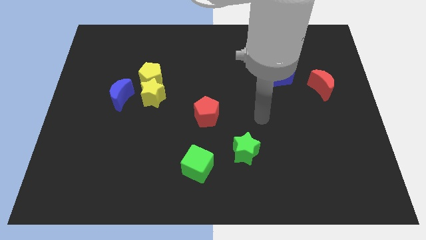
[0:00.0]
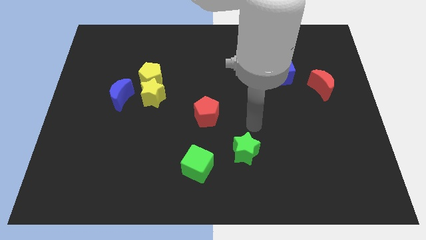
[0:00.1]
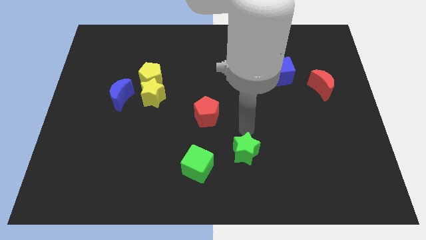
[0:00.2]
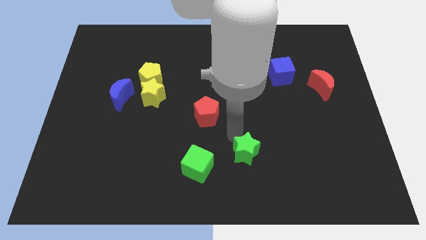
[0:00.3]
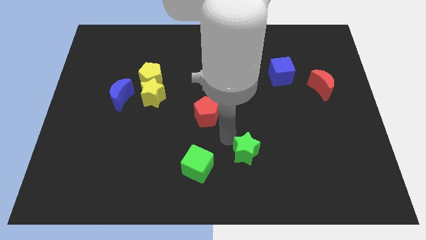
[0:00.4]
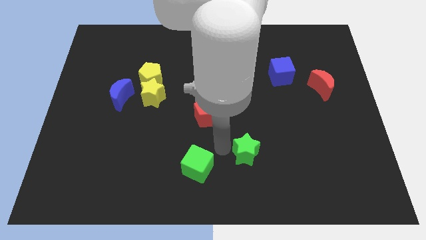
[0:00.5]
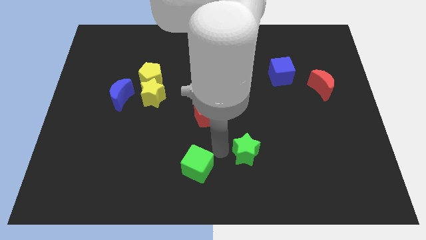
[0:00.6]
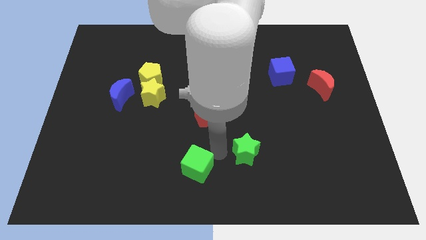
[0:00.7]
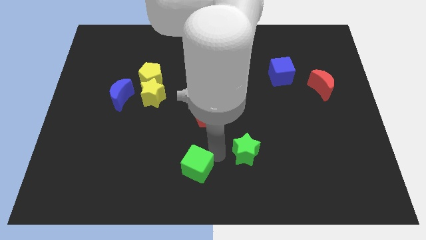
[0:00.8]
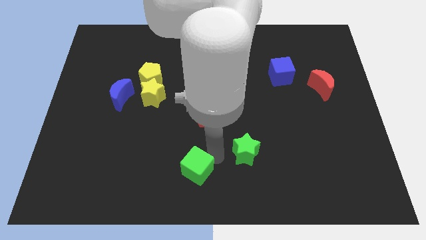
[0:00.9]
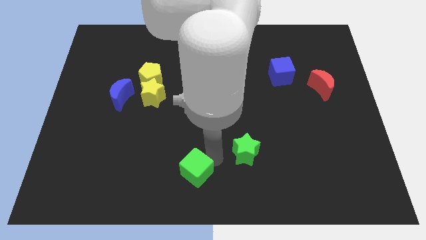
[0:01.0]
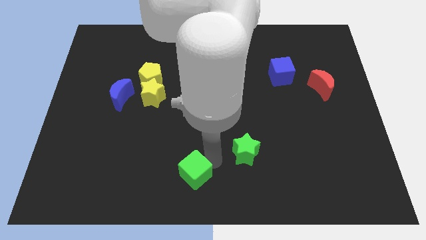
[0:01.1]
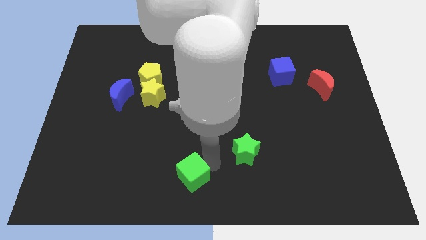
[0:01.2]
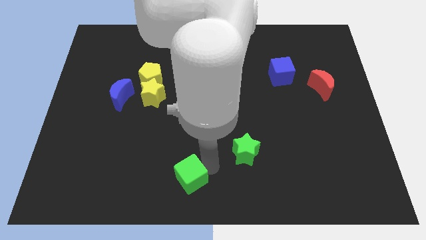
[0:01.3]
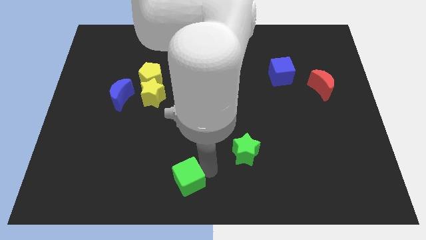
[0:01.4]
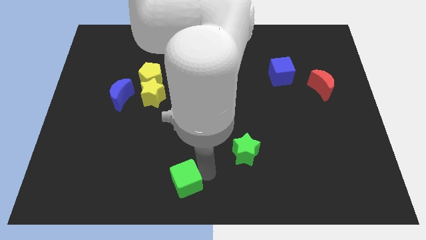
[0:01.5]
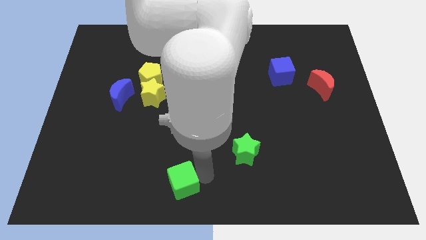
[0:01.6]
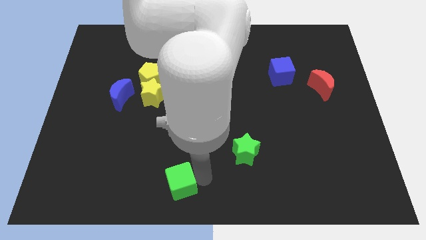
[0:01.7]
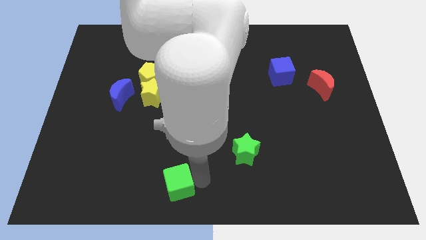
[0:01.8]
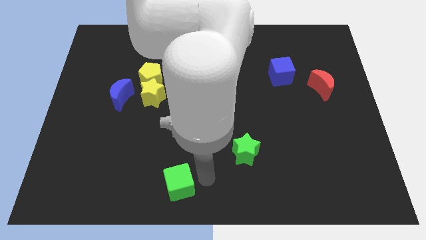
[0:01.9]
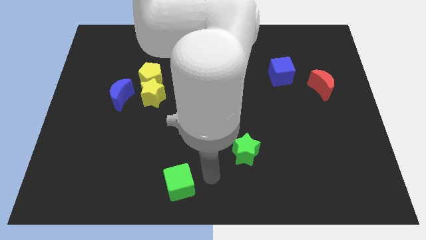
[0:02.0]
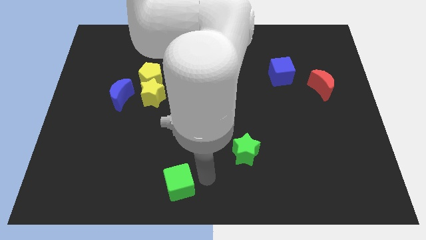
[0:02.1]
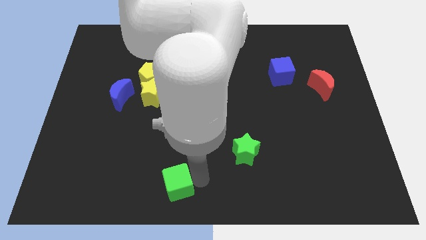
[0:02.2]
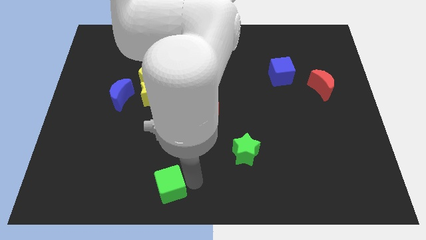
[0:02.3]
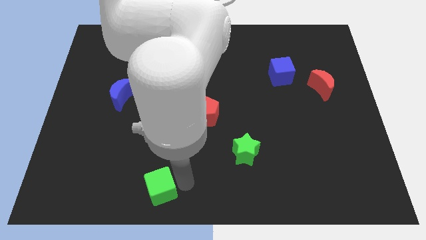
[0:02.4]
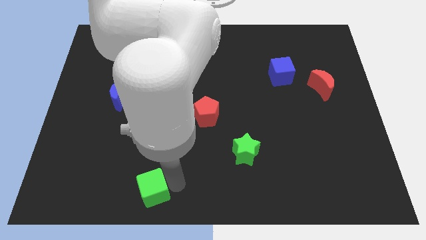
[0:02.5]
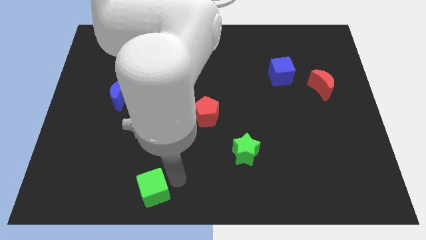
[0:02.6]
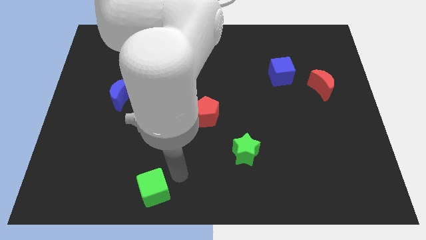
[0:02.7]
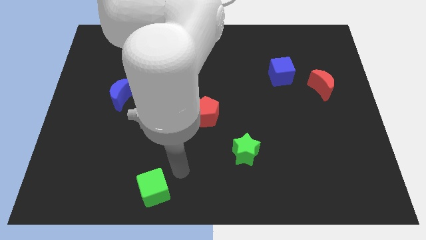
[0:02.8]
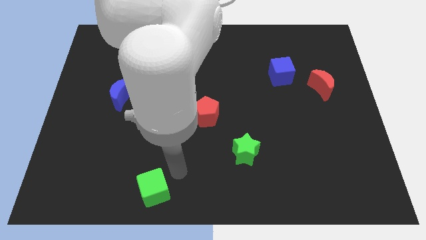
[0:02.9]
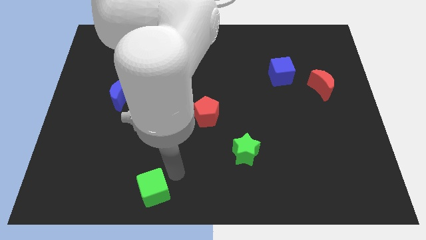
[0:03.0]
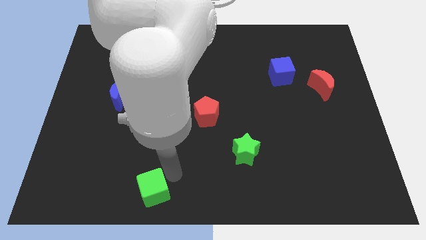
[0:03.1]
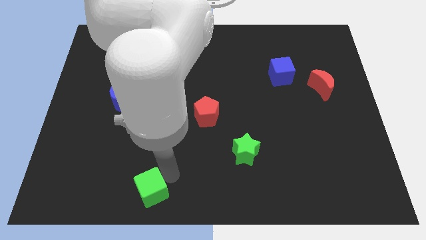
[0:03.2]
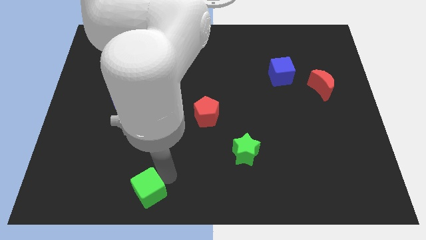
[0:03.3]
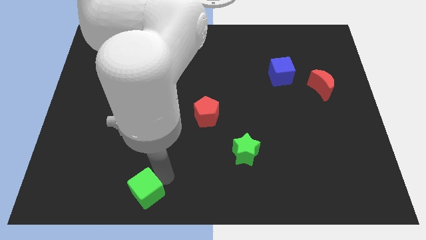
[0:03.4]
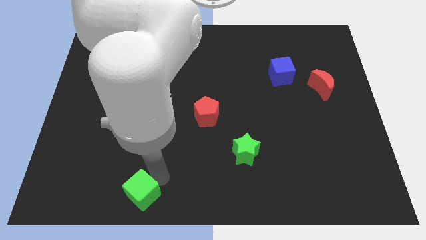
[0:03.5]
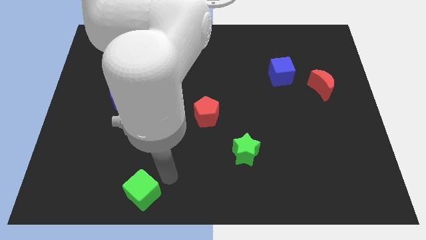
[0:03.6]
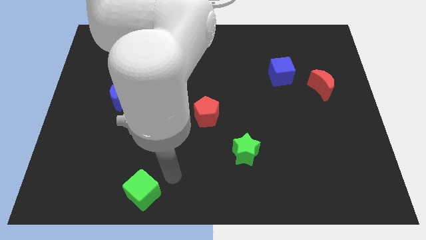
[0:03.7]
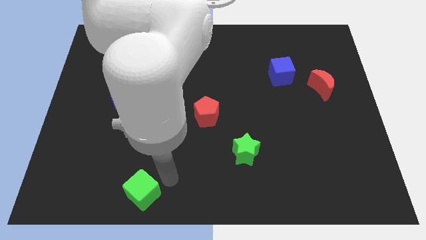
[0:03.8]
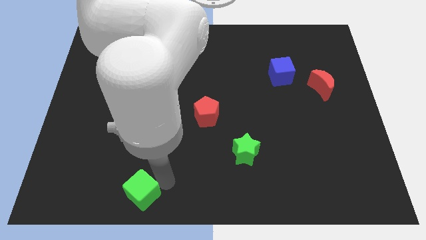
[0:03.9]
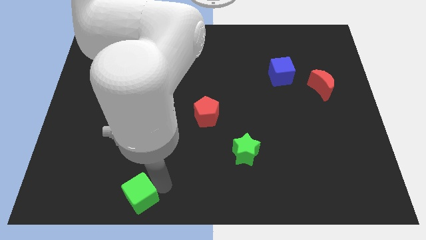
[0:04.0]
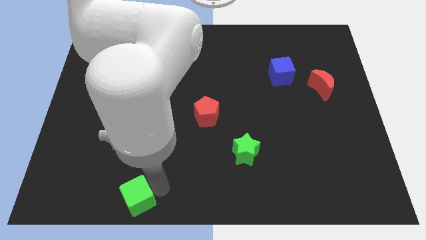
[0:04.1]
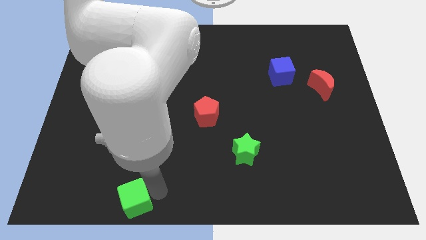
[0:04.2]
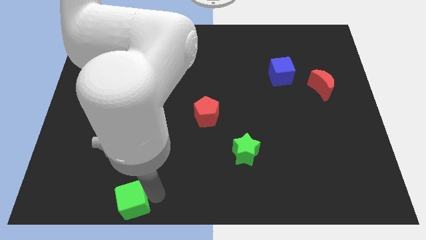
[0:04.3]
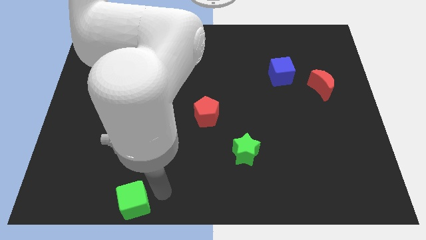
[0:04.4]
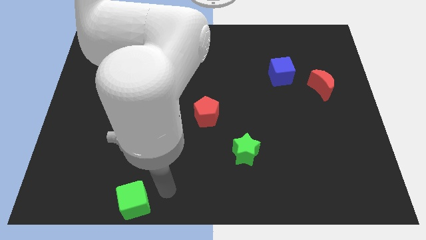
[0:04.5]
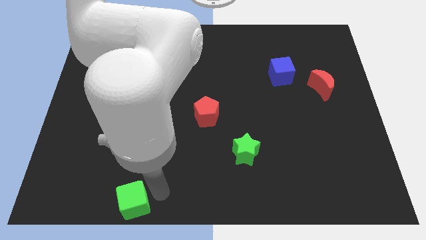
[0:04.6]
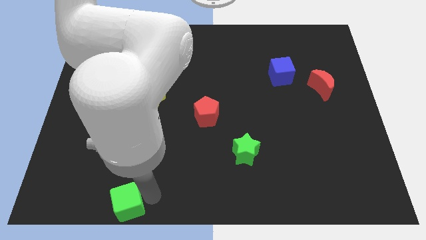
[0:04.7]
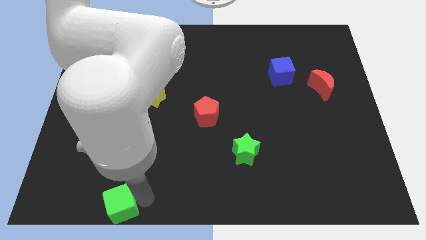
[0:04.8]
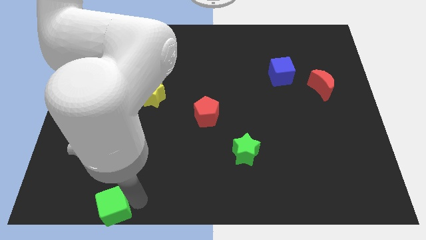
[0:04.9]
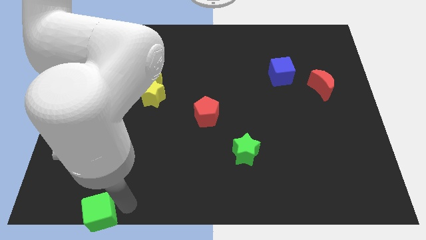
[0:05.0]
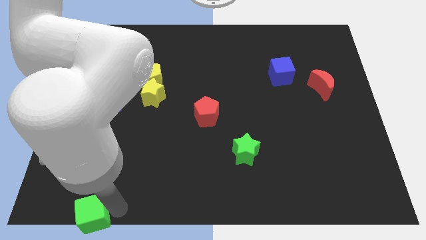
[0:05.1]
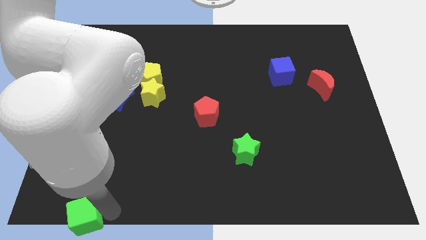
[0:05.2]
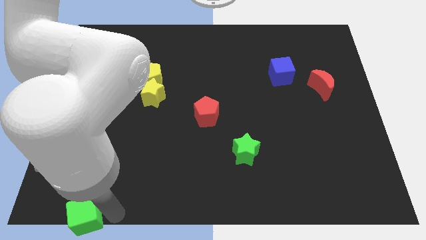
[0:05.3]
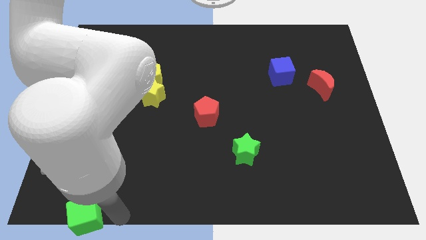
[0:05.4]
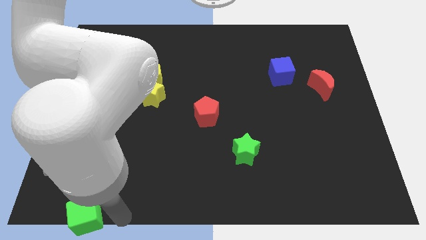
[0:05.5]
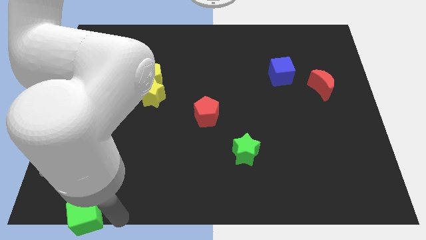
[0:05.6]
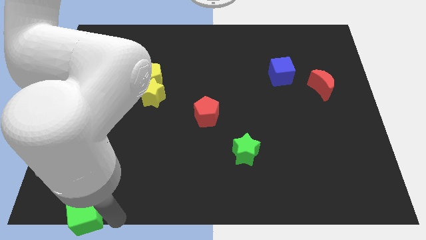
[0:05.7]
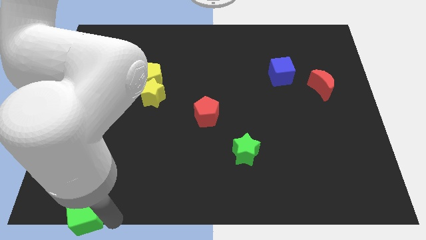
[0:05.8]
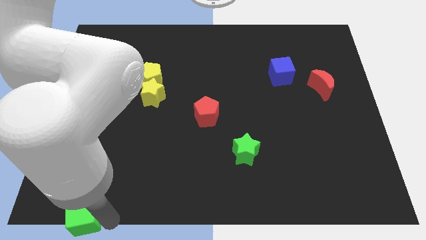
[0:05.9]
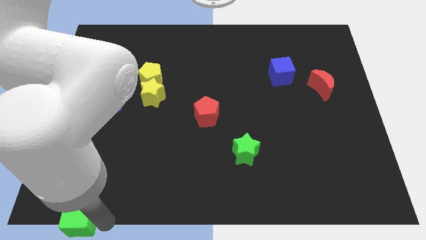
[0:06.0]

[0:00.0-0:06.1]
move the green cube to the bottom left

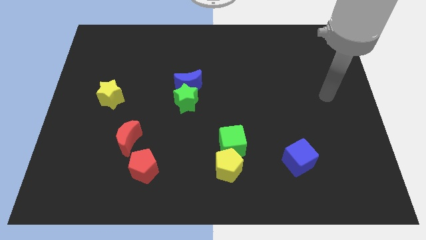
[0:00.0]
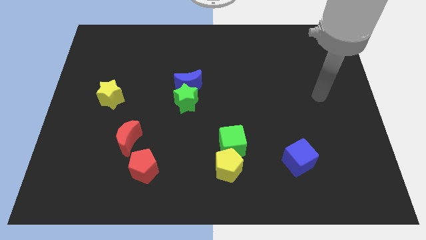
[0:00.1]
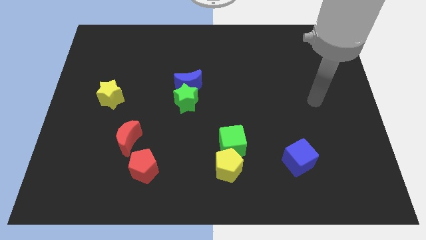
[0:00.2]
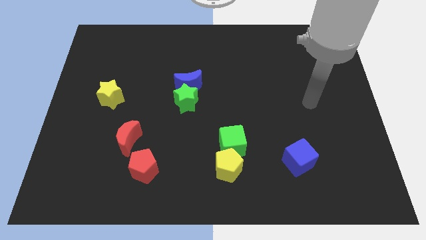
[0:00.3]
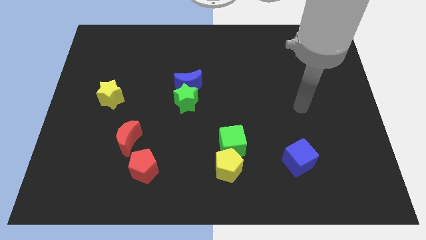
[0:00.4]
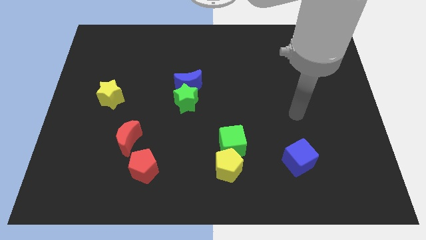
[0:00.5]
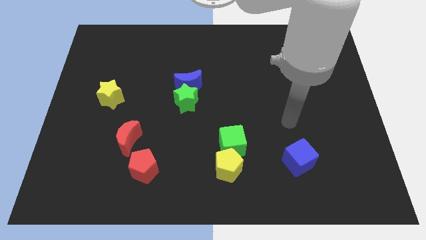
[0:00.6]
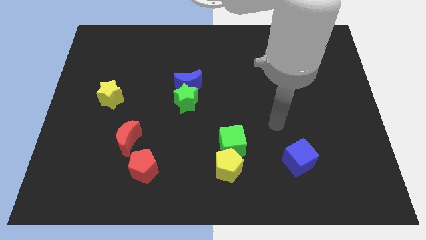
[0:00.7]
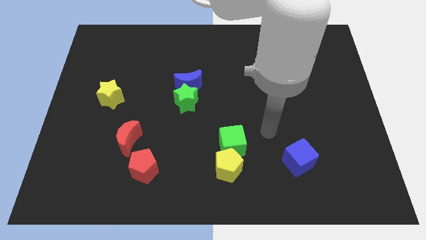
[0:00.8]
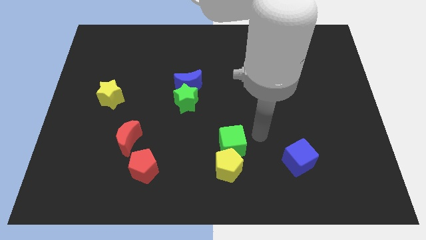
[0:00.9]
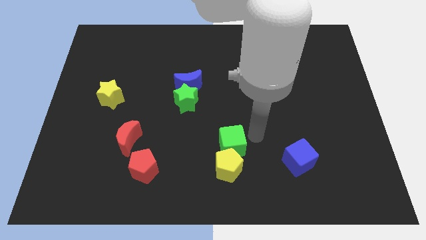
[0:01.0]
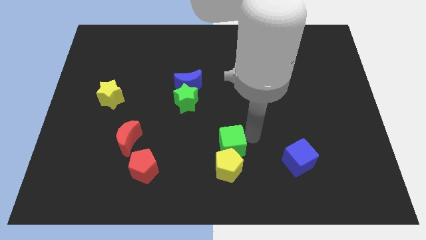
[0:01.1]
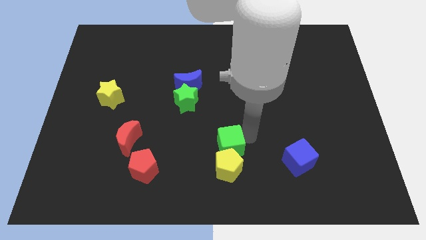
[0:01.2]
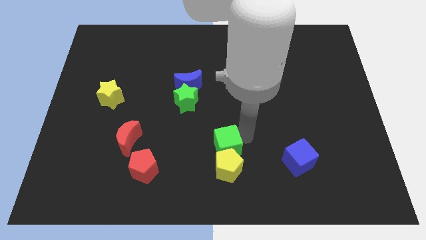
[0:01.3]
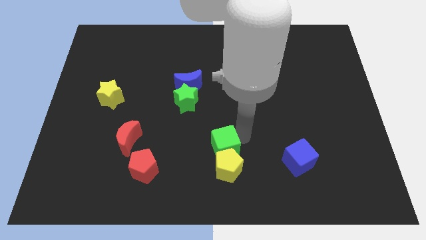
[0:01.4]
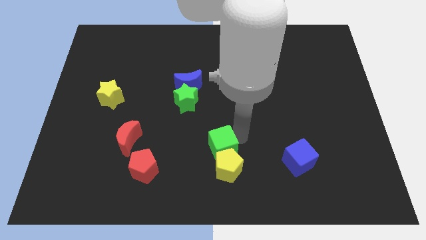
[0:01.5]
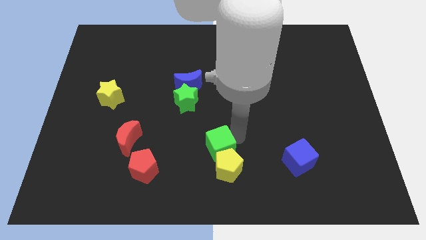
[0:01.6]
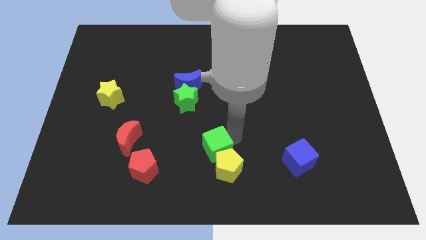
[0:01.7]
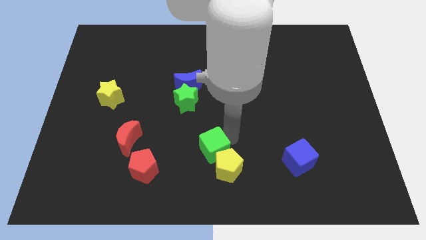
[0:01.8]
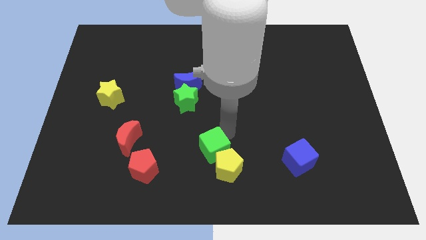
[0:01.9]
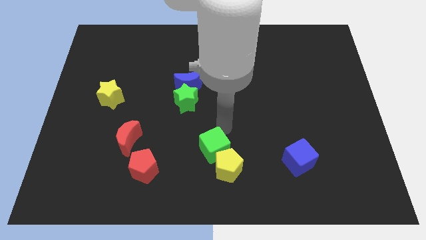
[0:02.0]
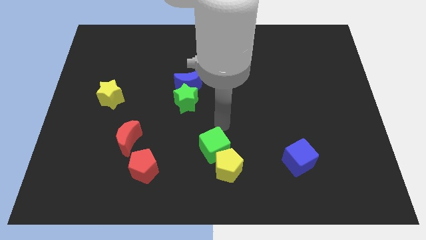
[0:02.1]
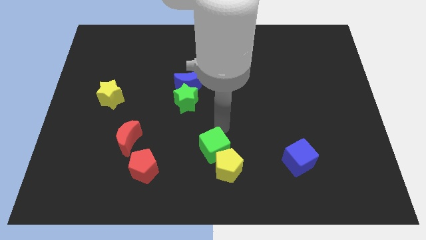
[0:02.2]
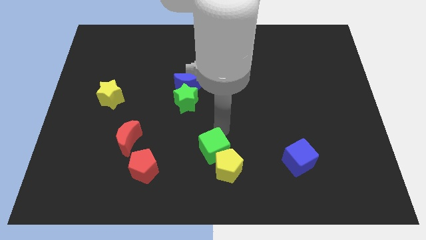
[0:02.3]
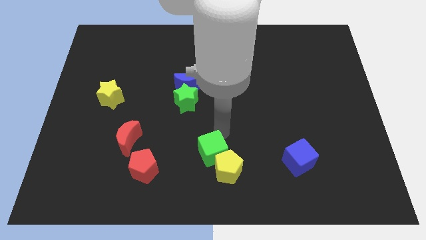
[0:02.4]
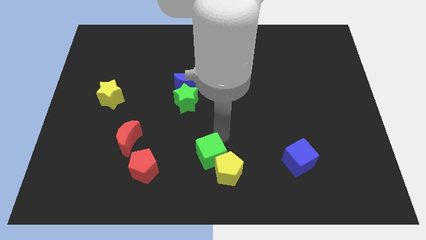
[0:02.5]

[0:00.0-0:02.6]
push the green cube to the bottom
